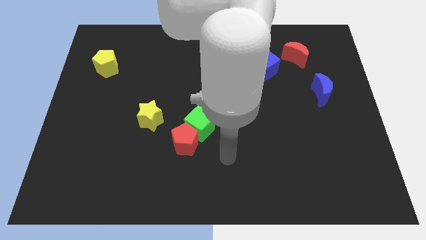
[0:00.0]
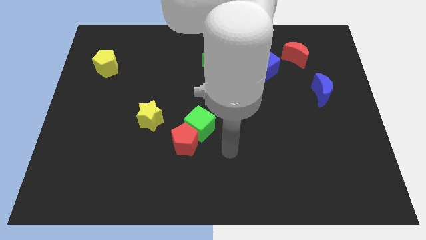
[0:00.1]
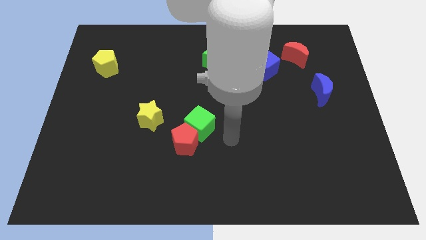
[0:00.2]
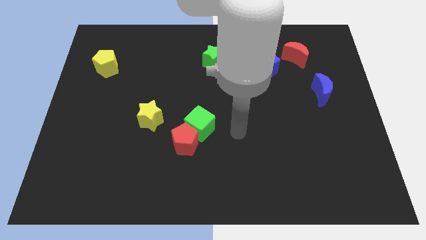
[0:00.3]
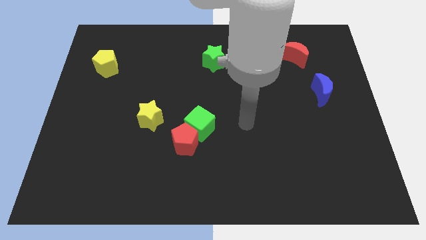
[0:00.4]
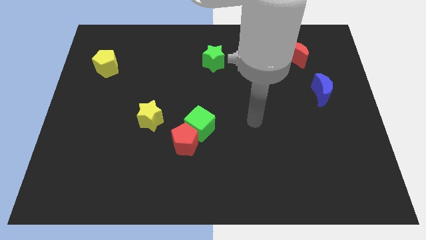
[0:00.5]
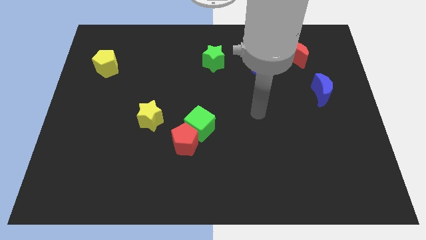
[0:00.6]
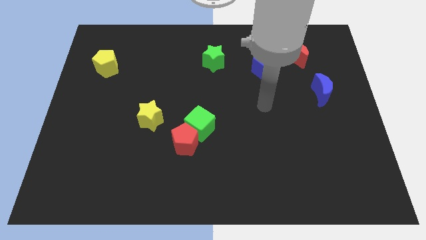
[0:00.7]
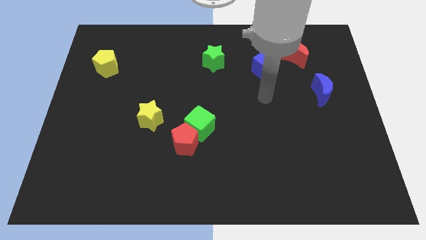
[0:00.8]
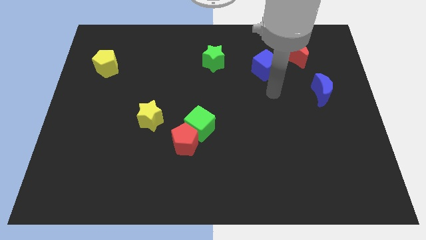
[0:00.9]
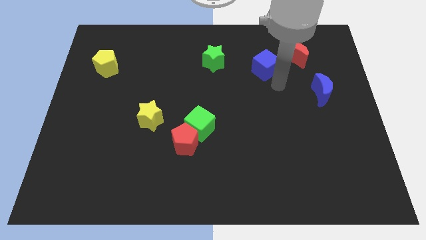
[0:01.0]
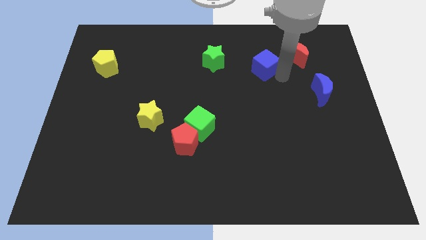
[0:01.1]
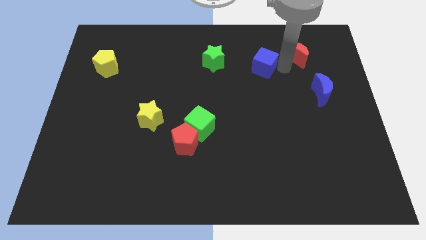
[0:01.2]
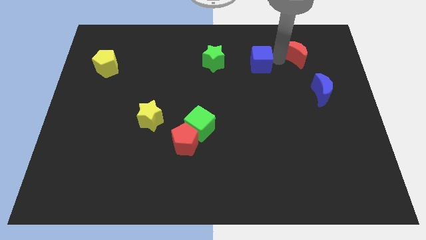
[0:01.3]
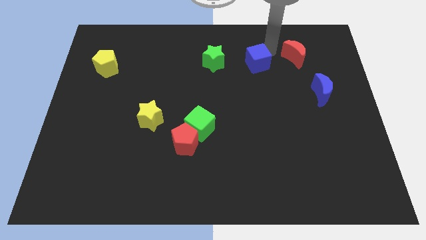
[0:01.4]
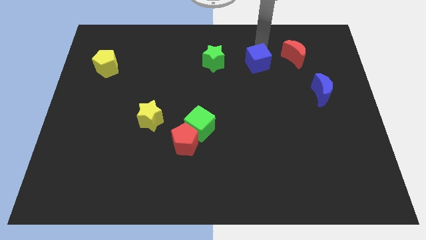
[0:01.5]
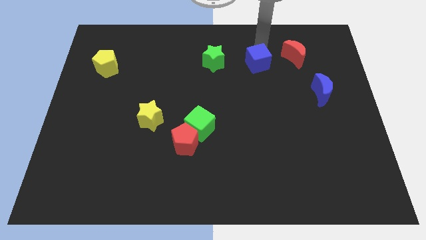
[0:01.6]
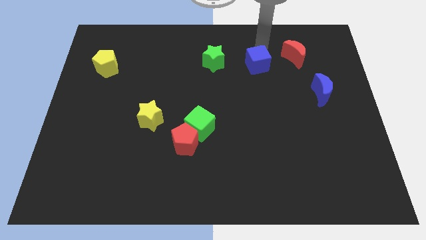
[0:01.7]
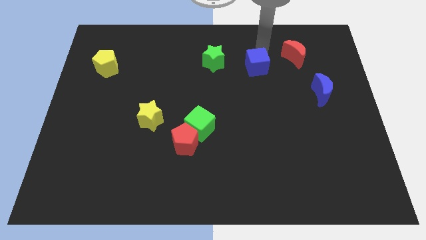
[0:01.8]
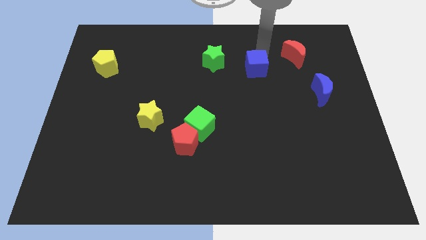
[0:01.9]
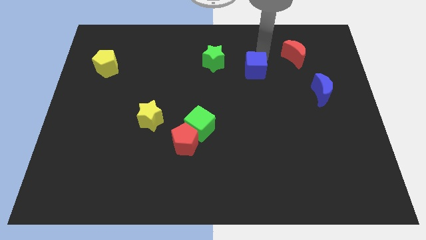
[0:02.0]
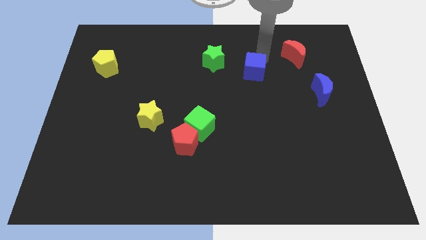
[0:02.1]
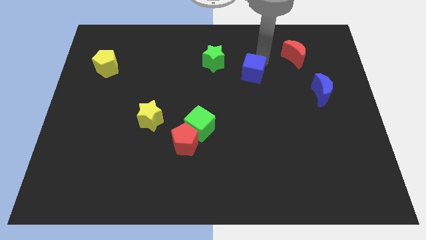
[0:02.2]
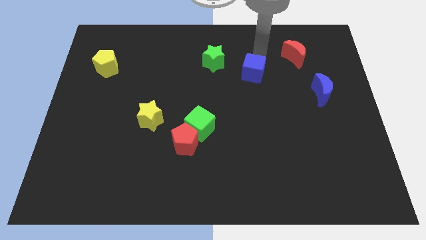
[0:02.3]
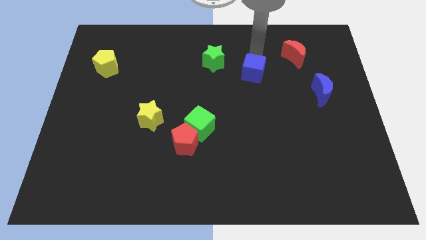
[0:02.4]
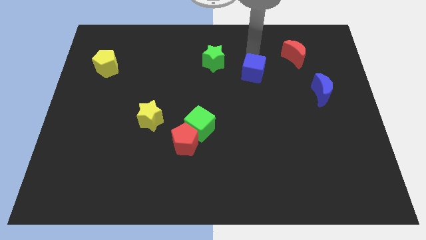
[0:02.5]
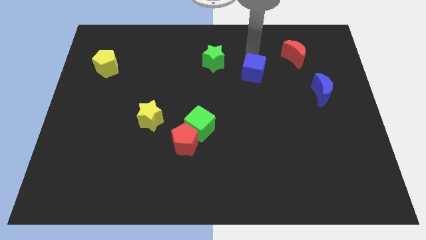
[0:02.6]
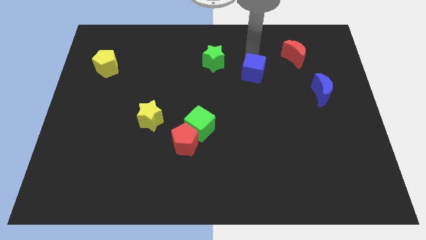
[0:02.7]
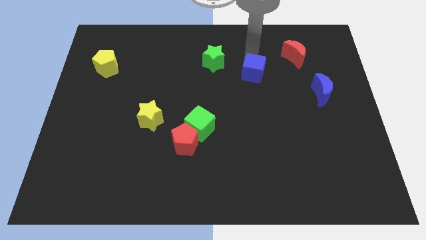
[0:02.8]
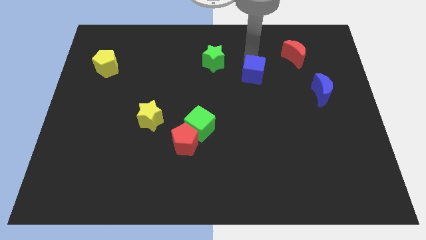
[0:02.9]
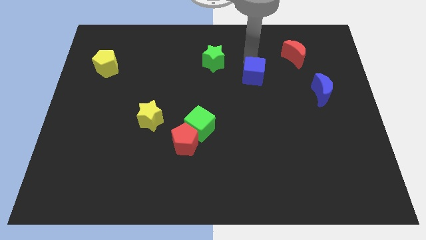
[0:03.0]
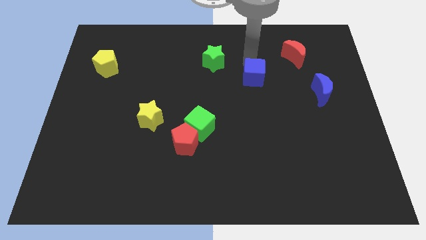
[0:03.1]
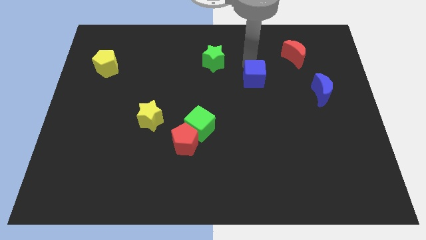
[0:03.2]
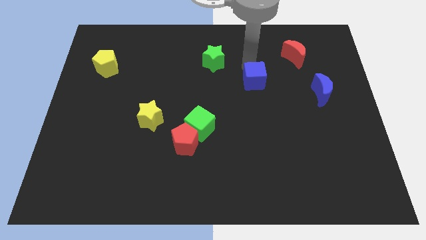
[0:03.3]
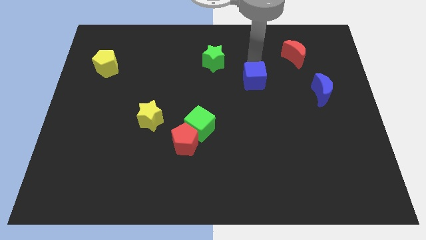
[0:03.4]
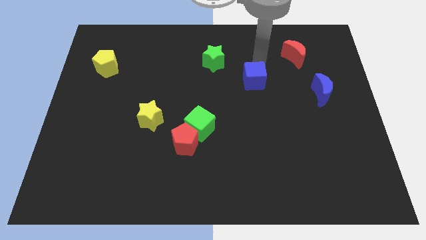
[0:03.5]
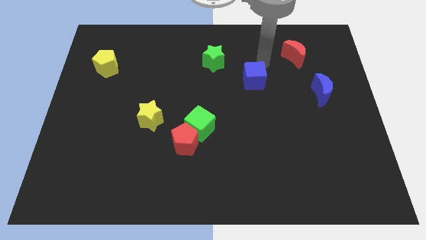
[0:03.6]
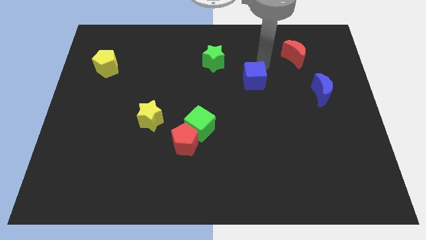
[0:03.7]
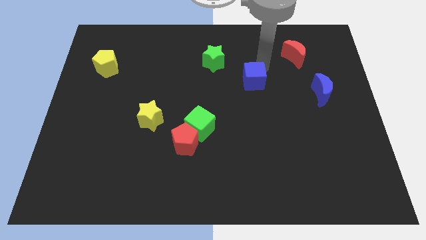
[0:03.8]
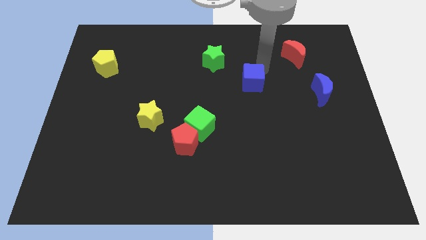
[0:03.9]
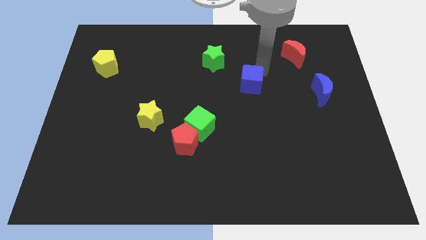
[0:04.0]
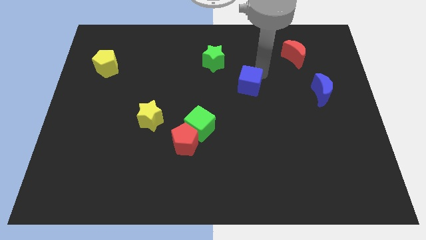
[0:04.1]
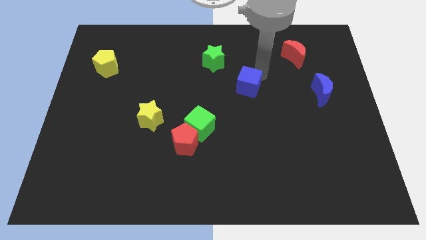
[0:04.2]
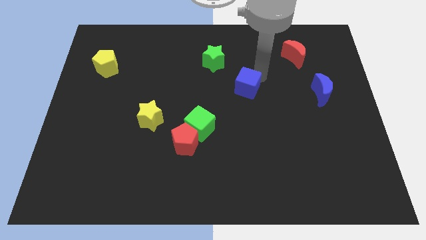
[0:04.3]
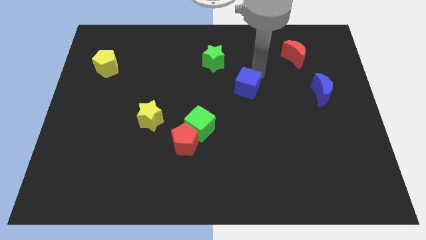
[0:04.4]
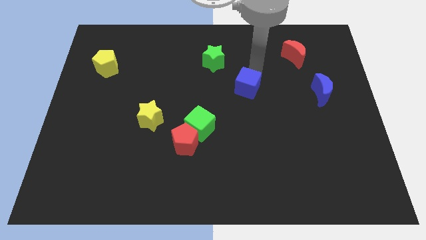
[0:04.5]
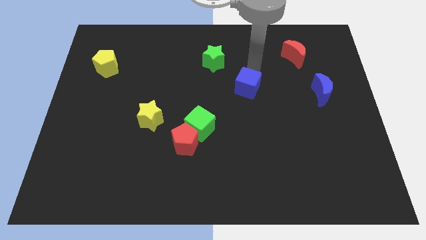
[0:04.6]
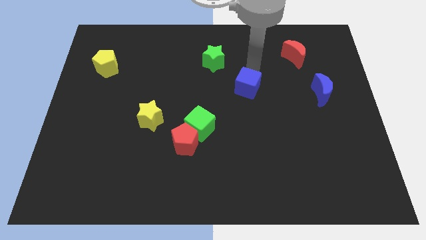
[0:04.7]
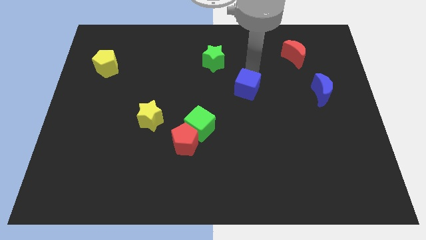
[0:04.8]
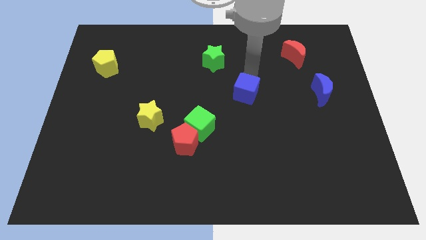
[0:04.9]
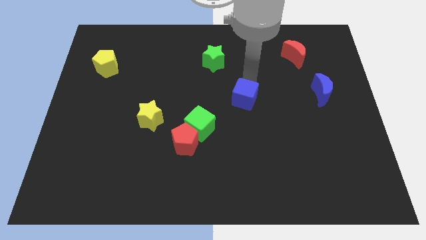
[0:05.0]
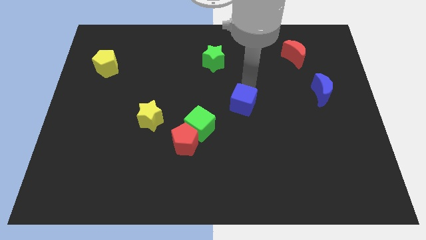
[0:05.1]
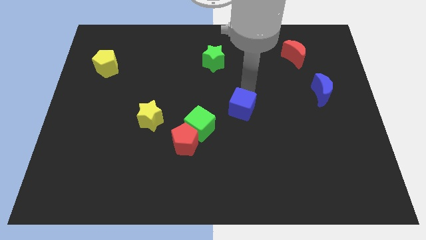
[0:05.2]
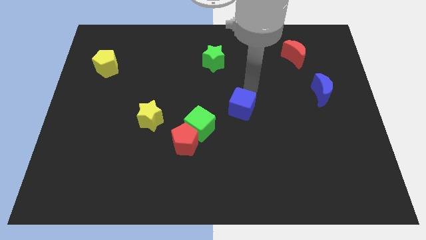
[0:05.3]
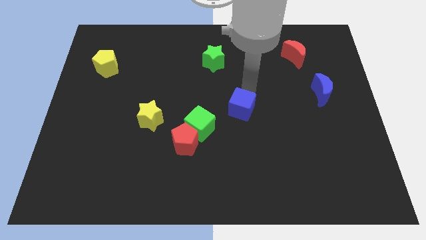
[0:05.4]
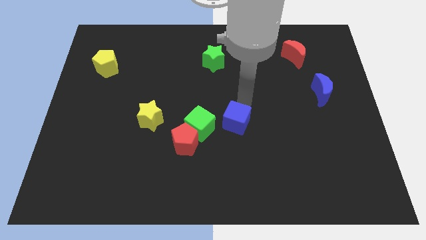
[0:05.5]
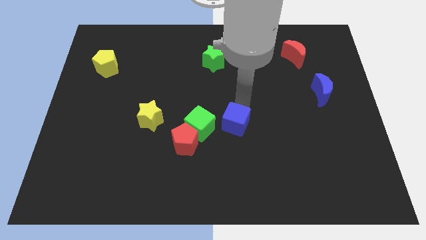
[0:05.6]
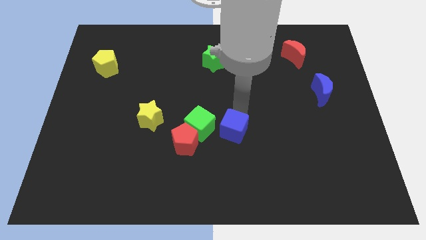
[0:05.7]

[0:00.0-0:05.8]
push the blue cube to the bottom right of the green cube

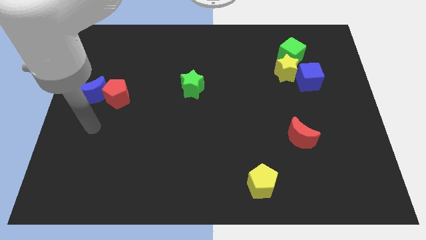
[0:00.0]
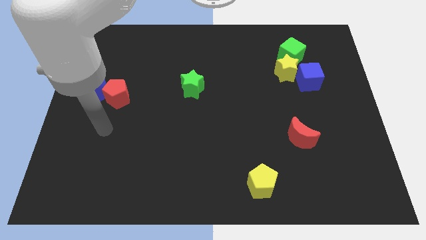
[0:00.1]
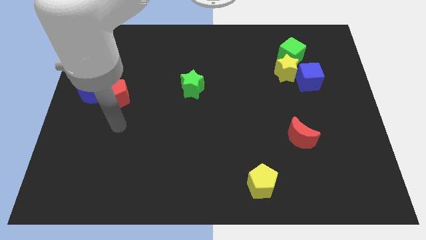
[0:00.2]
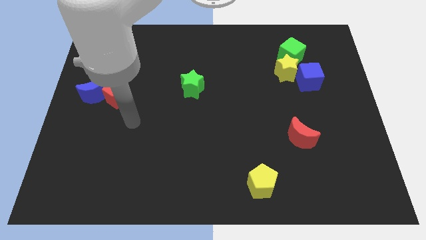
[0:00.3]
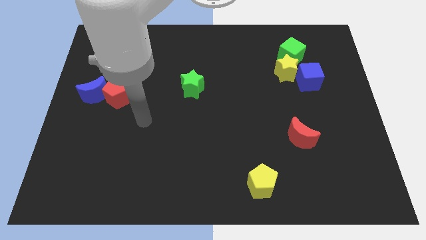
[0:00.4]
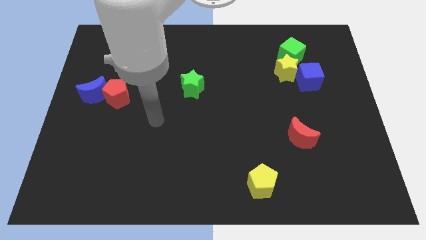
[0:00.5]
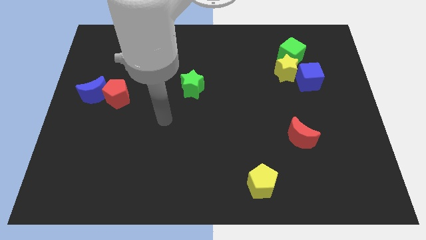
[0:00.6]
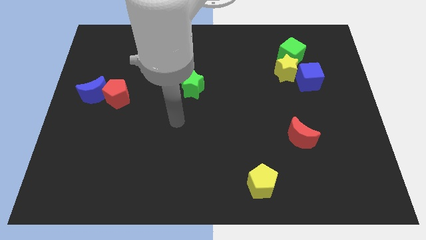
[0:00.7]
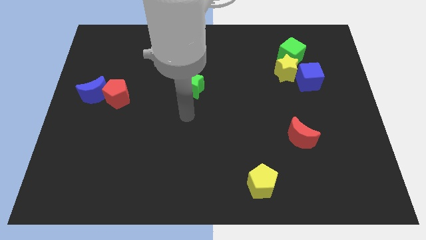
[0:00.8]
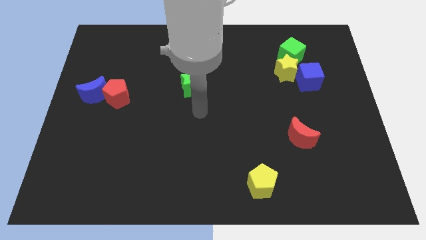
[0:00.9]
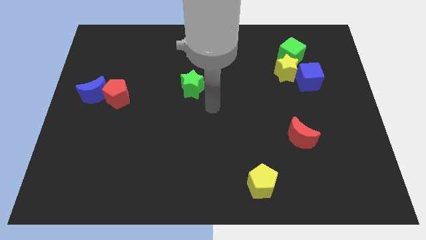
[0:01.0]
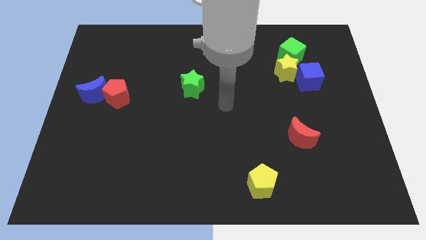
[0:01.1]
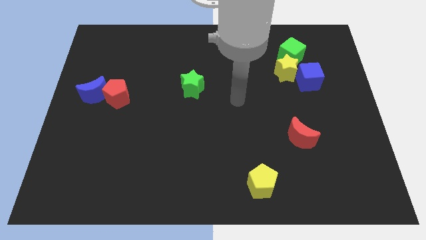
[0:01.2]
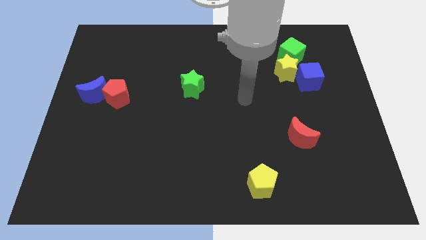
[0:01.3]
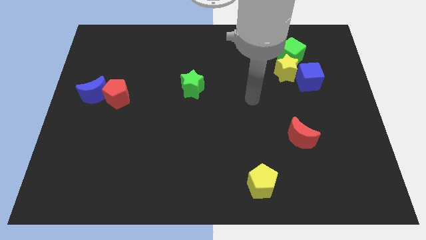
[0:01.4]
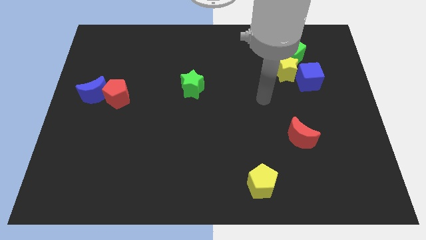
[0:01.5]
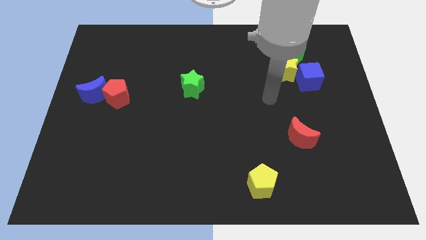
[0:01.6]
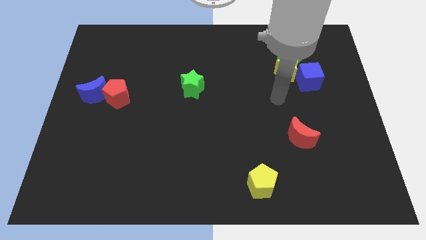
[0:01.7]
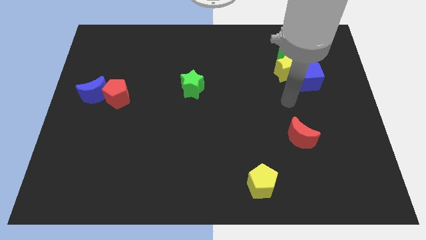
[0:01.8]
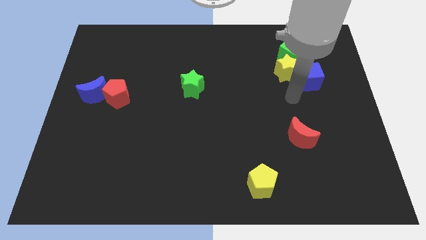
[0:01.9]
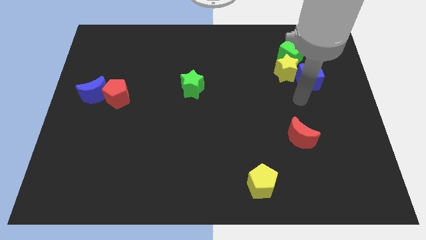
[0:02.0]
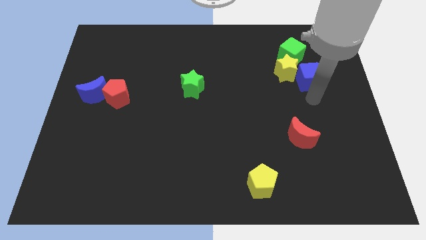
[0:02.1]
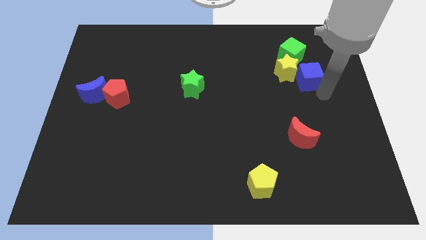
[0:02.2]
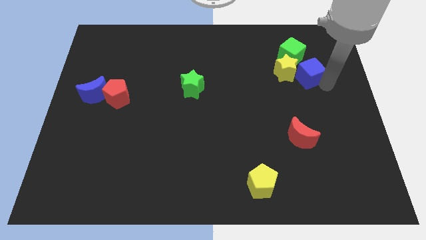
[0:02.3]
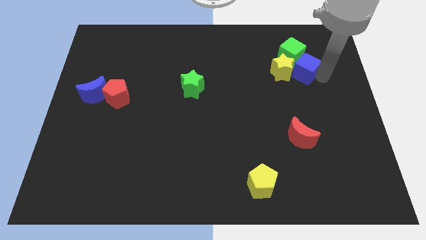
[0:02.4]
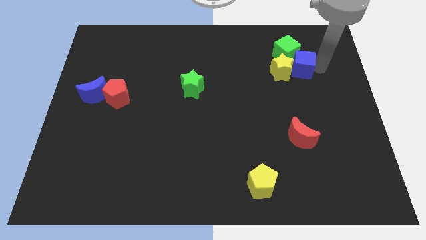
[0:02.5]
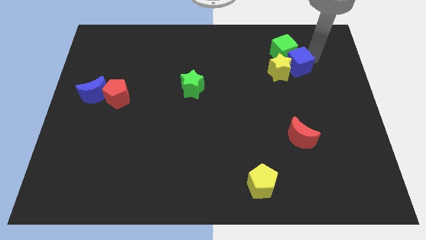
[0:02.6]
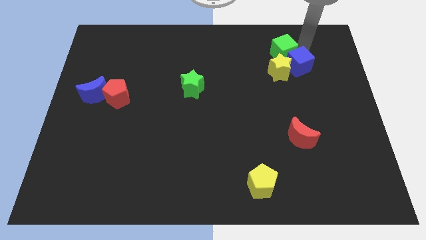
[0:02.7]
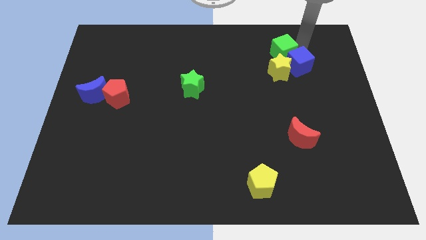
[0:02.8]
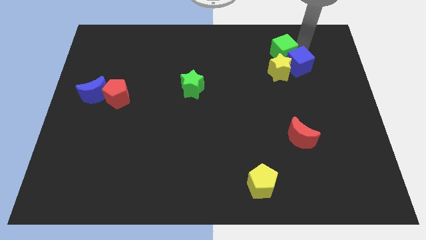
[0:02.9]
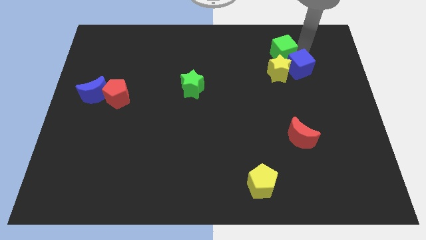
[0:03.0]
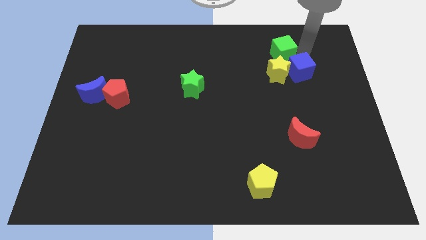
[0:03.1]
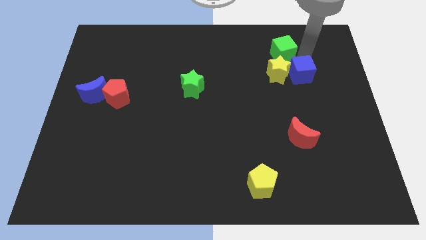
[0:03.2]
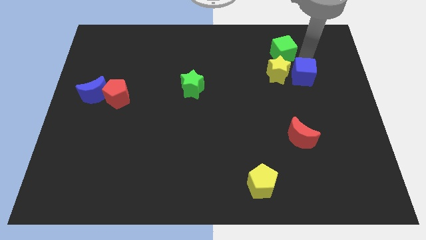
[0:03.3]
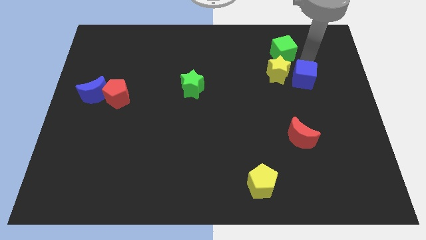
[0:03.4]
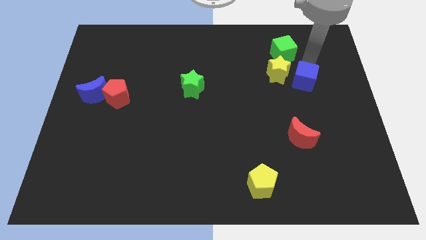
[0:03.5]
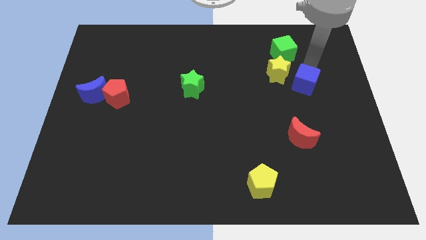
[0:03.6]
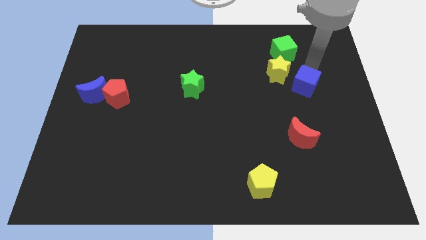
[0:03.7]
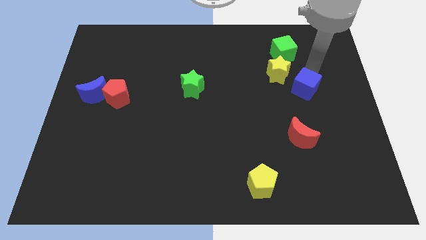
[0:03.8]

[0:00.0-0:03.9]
slide the blue cube above the red moon
